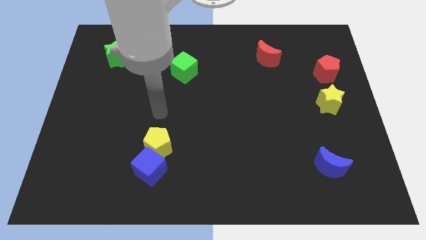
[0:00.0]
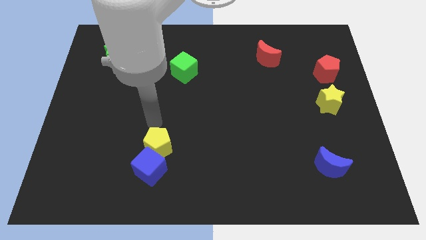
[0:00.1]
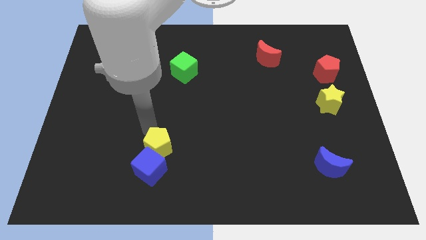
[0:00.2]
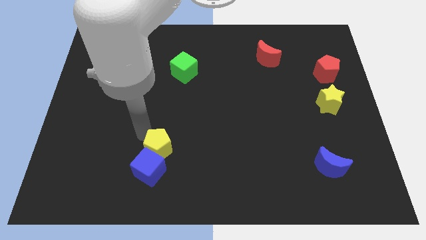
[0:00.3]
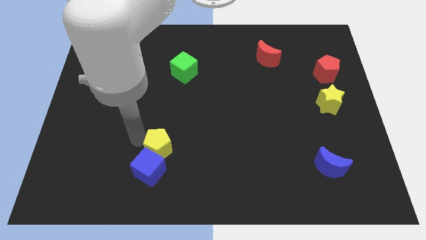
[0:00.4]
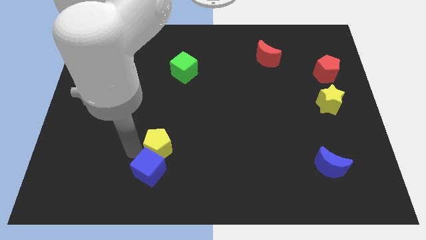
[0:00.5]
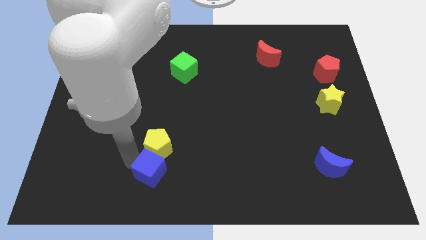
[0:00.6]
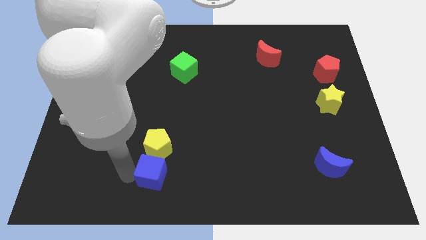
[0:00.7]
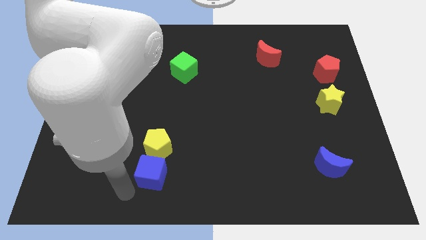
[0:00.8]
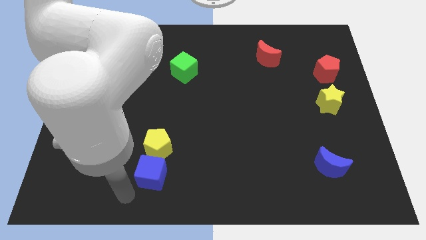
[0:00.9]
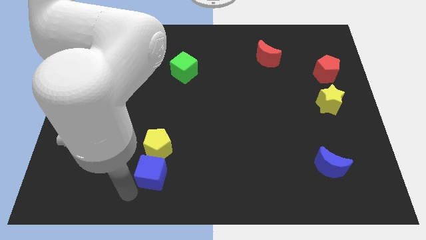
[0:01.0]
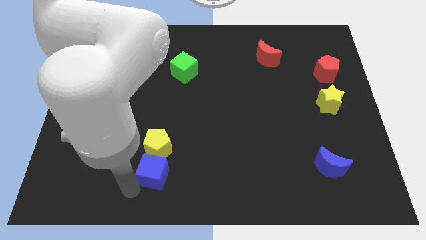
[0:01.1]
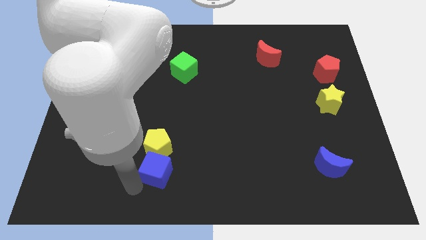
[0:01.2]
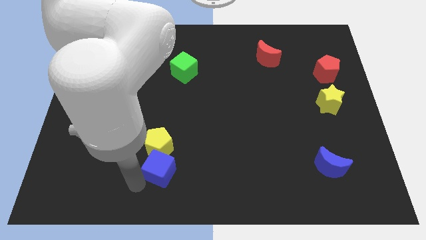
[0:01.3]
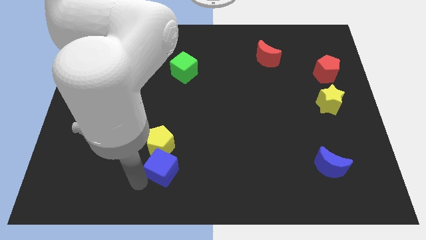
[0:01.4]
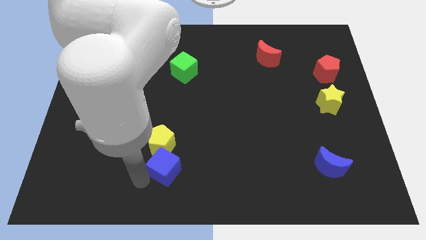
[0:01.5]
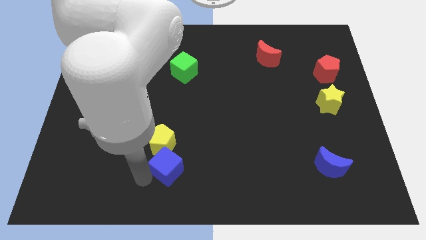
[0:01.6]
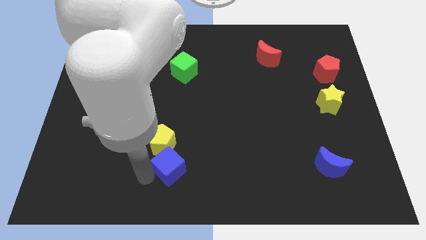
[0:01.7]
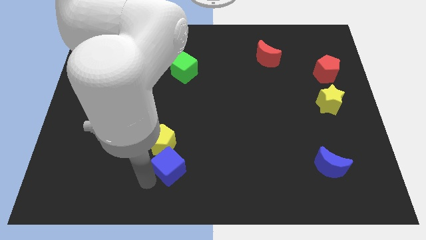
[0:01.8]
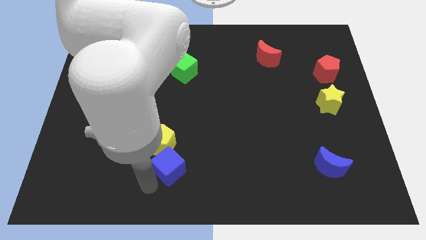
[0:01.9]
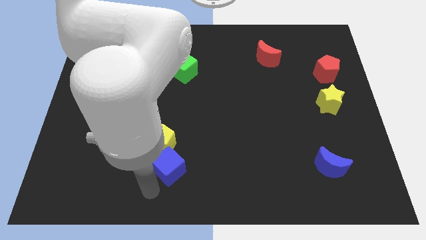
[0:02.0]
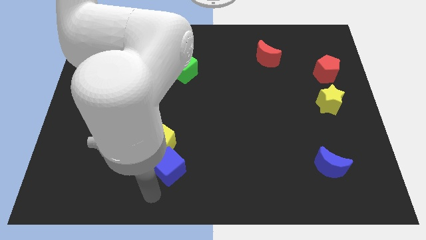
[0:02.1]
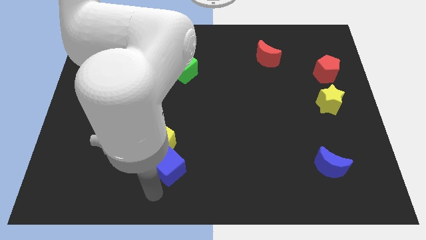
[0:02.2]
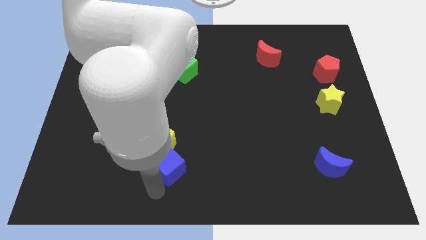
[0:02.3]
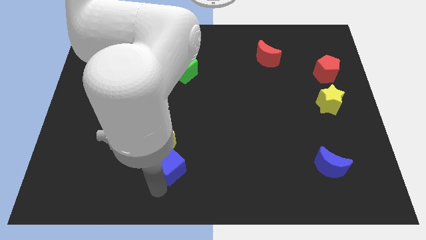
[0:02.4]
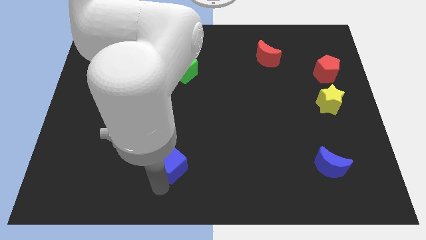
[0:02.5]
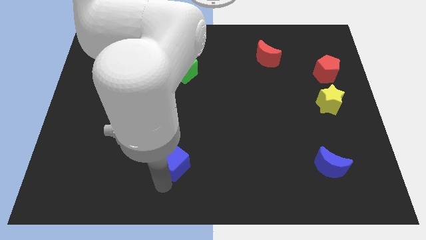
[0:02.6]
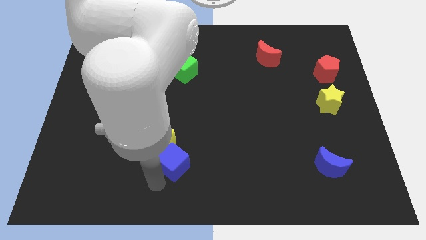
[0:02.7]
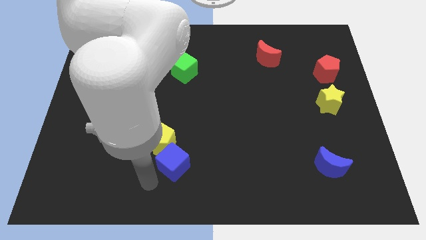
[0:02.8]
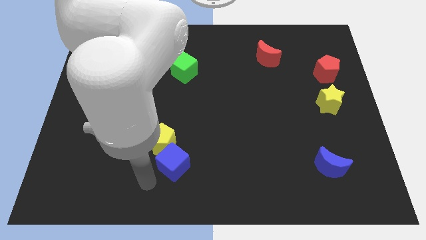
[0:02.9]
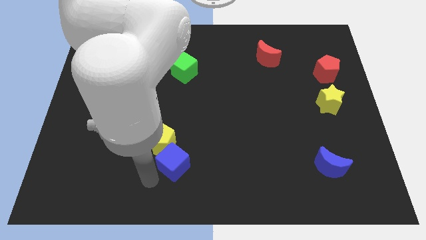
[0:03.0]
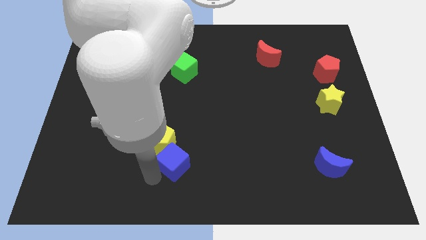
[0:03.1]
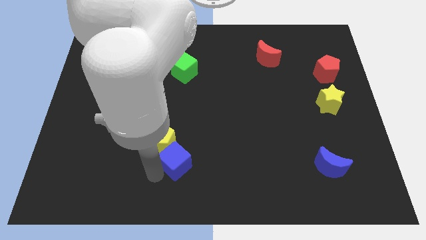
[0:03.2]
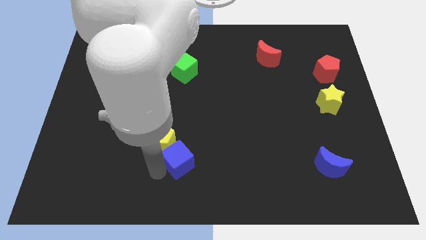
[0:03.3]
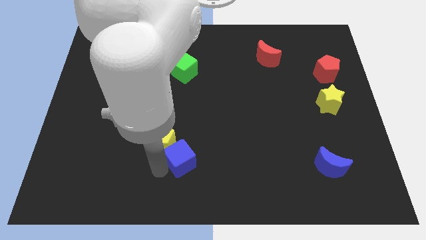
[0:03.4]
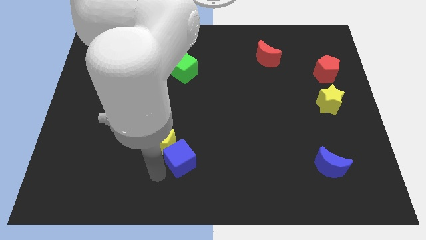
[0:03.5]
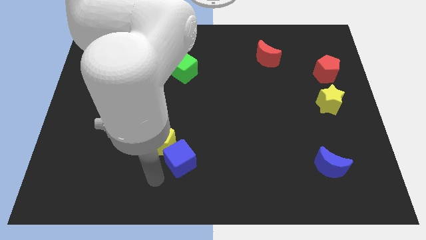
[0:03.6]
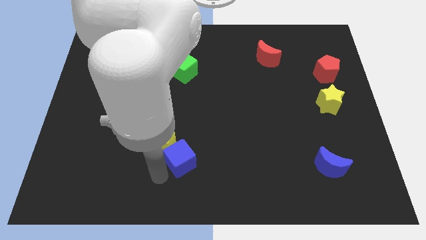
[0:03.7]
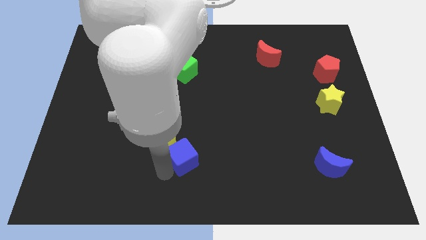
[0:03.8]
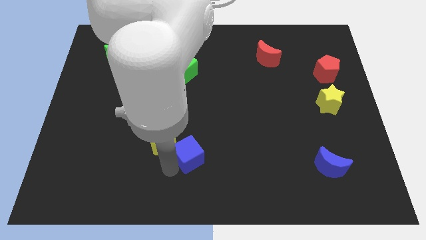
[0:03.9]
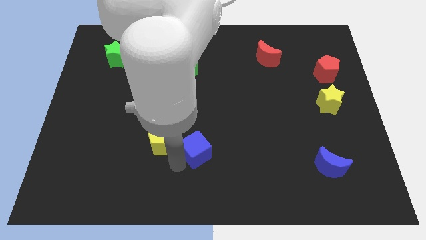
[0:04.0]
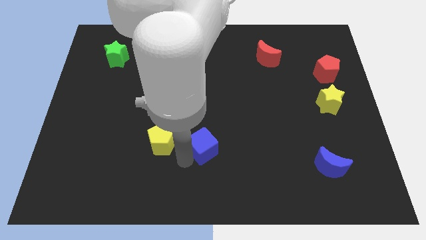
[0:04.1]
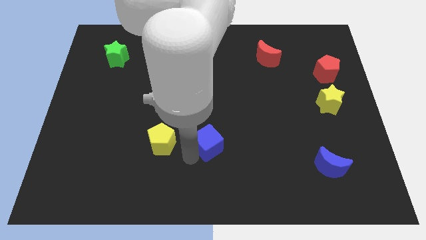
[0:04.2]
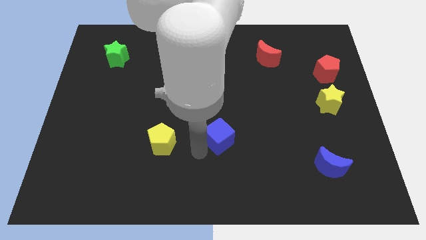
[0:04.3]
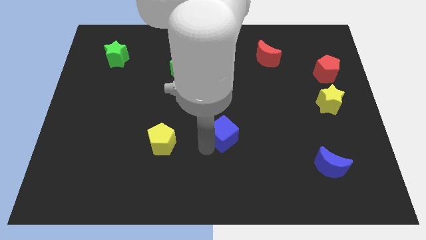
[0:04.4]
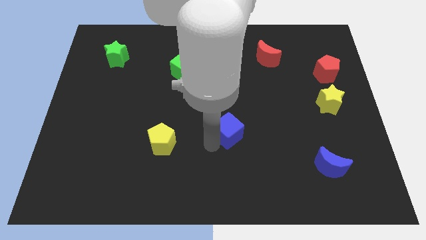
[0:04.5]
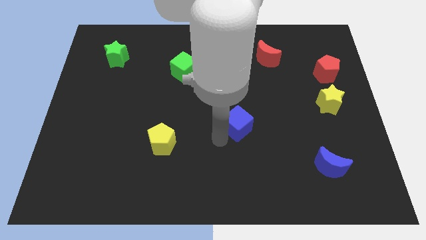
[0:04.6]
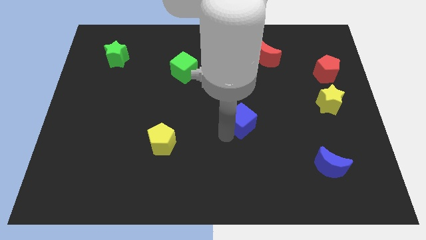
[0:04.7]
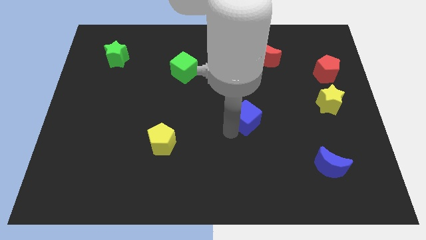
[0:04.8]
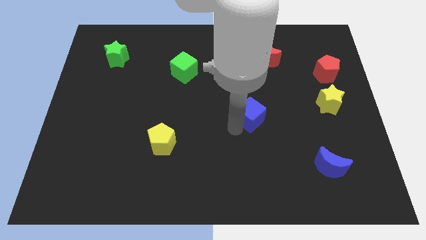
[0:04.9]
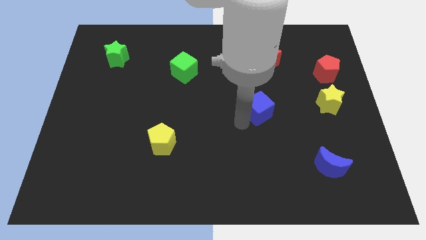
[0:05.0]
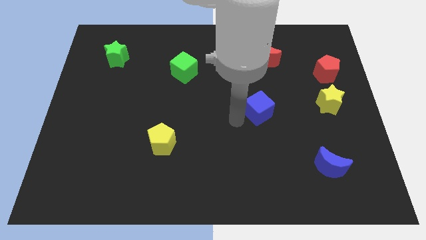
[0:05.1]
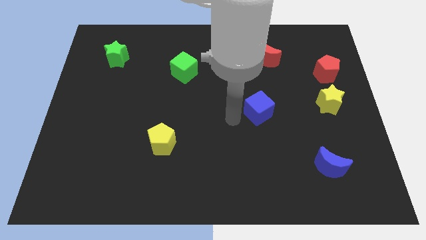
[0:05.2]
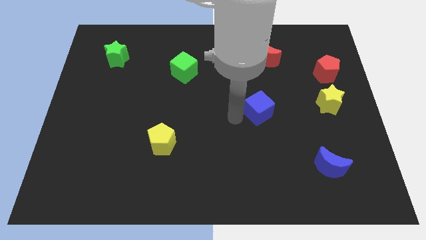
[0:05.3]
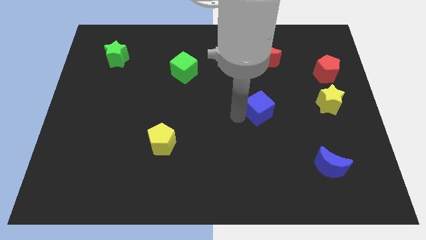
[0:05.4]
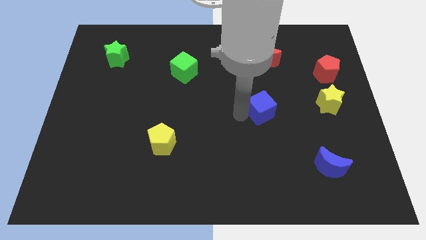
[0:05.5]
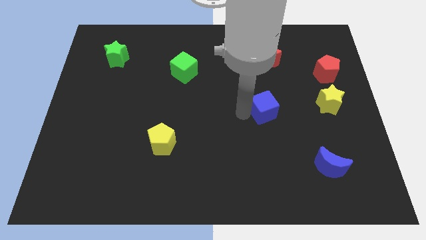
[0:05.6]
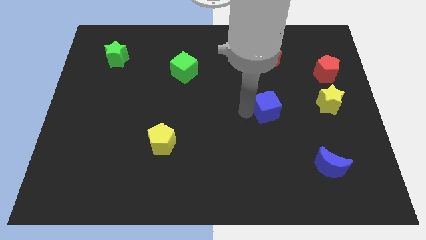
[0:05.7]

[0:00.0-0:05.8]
move the blue cube just left of the yellow star
